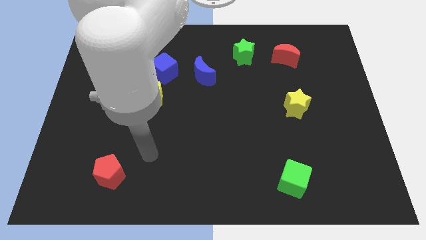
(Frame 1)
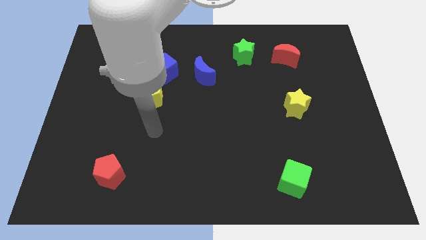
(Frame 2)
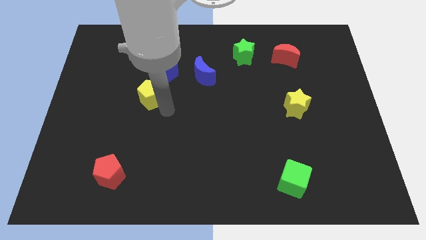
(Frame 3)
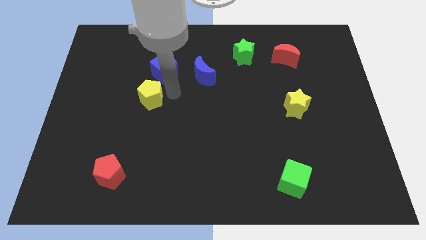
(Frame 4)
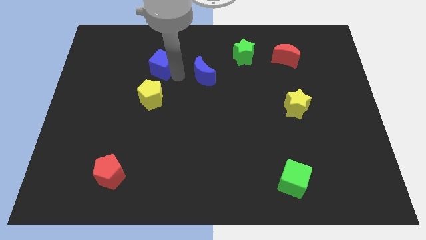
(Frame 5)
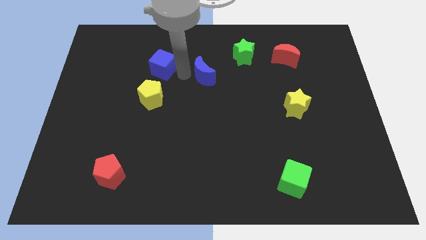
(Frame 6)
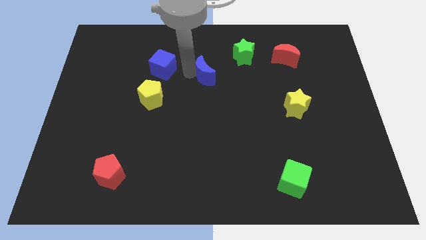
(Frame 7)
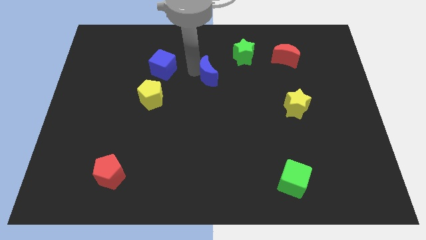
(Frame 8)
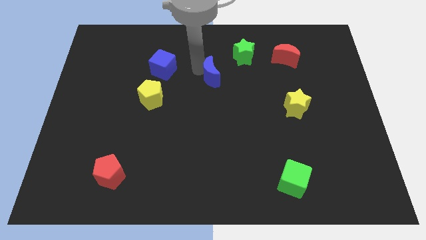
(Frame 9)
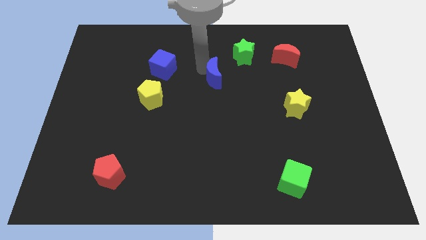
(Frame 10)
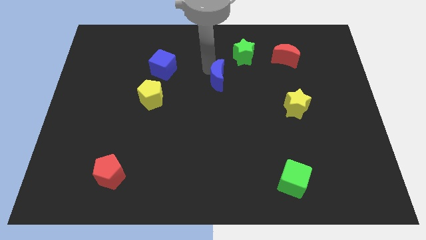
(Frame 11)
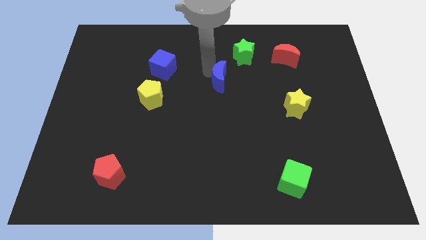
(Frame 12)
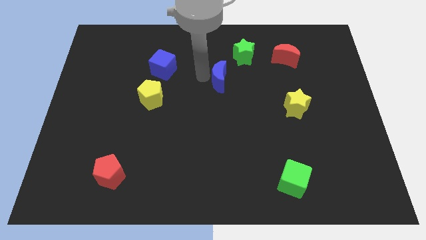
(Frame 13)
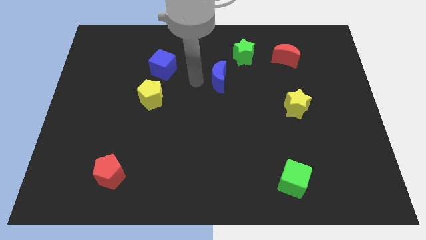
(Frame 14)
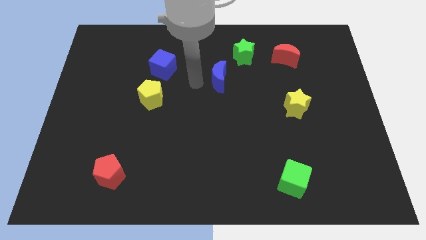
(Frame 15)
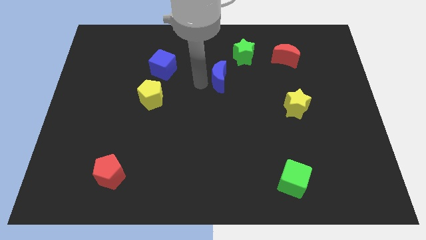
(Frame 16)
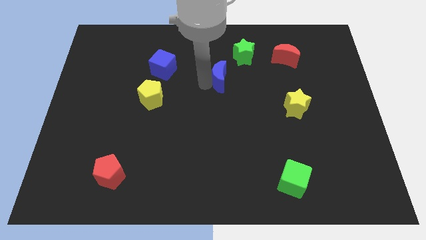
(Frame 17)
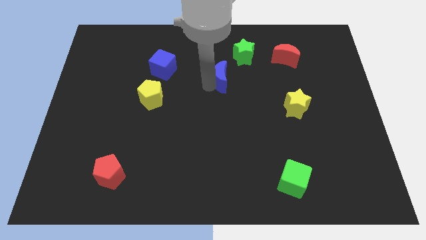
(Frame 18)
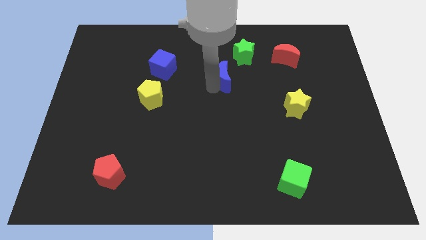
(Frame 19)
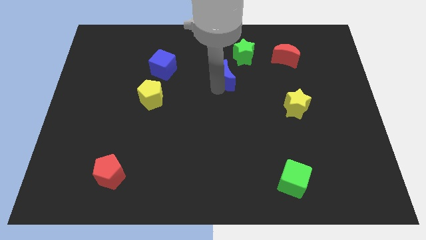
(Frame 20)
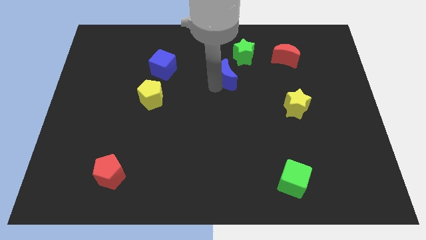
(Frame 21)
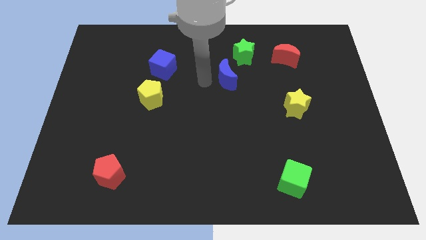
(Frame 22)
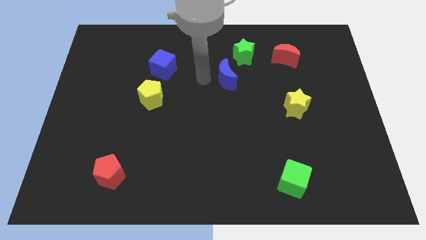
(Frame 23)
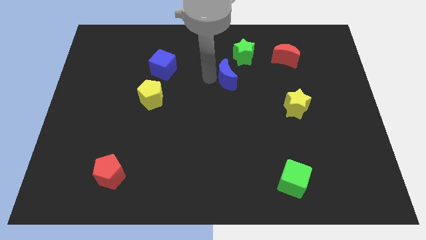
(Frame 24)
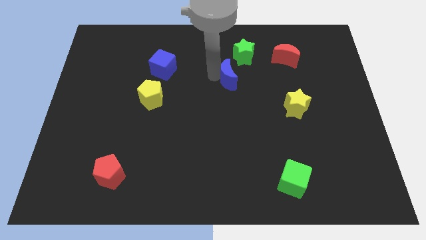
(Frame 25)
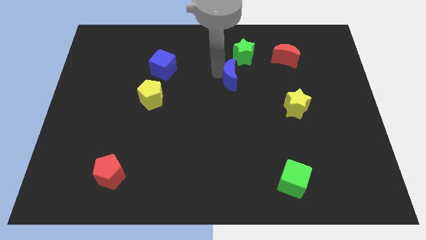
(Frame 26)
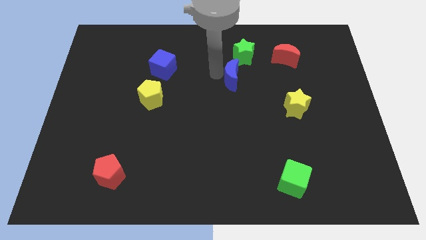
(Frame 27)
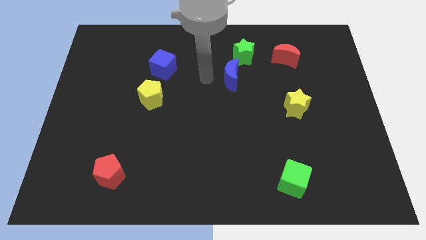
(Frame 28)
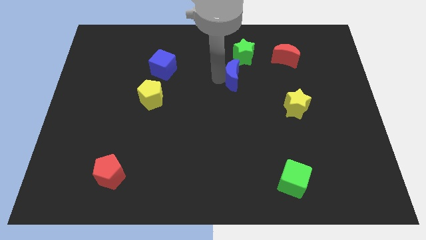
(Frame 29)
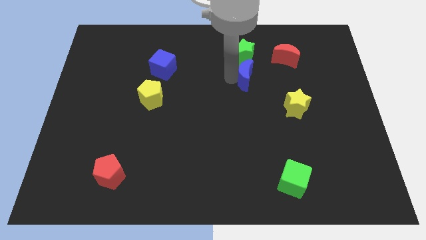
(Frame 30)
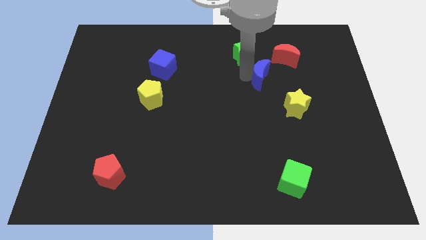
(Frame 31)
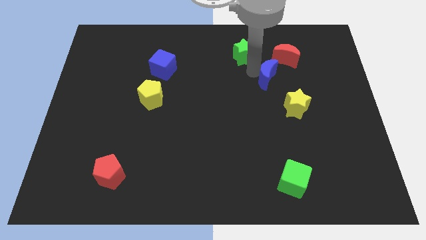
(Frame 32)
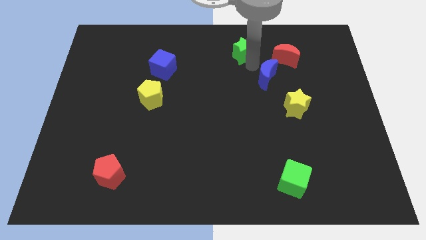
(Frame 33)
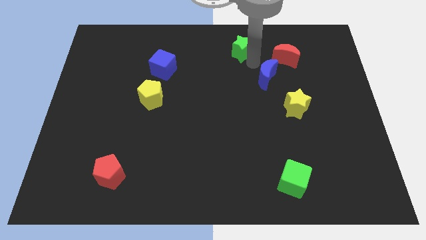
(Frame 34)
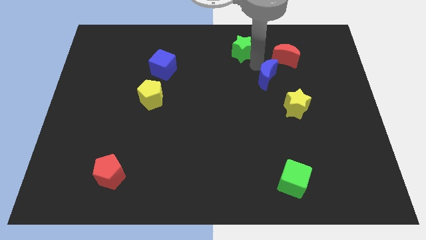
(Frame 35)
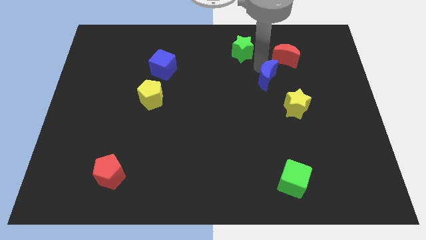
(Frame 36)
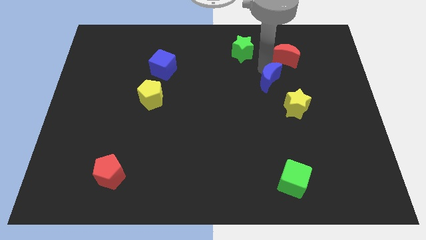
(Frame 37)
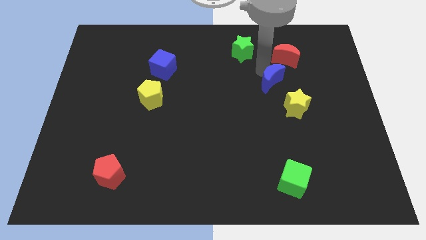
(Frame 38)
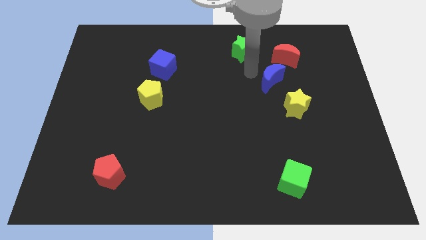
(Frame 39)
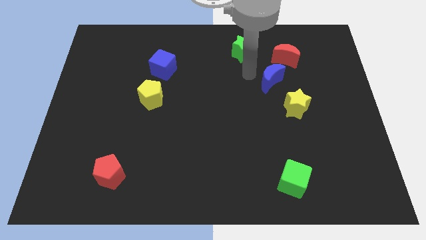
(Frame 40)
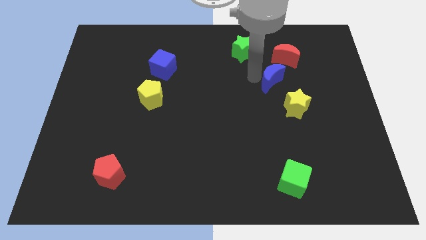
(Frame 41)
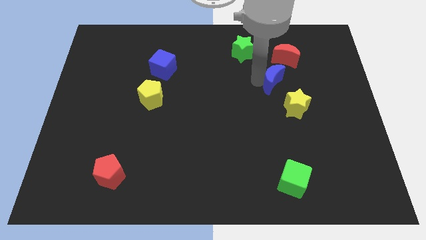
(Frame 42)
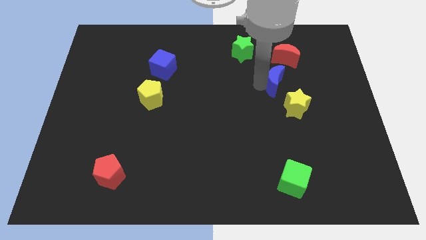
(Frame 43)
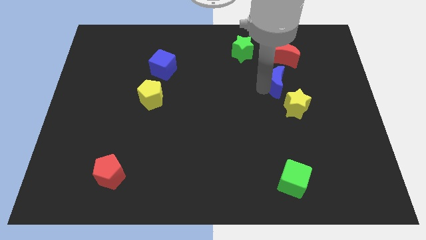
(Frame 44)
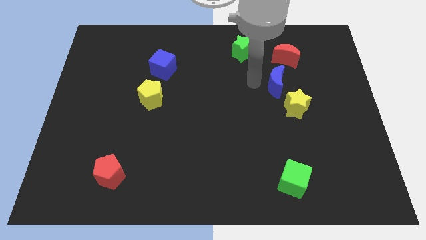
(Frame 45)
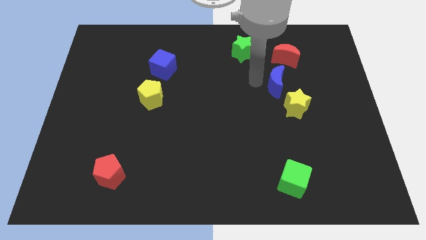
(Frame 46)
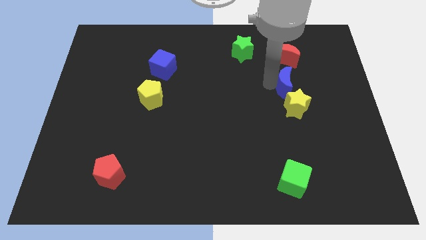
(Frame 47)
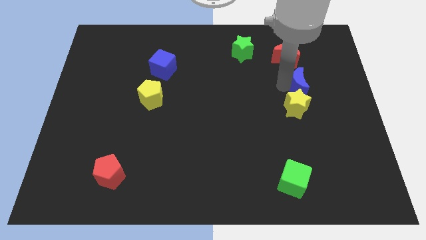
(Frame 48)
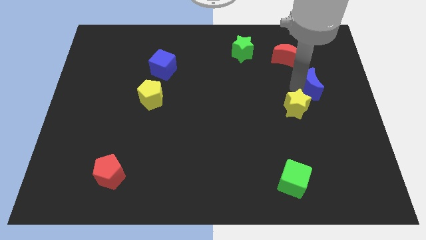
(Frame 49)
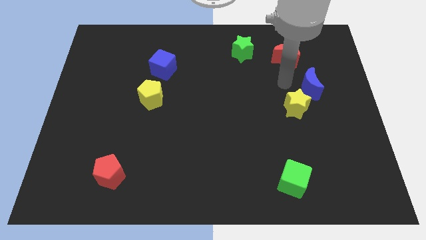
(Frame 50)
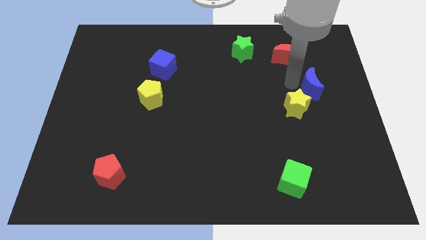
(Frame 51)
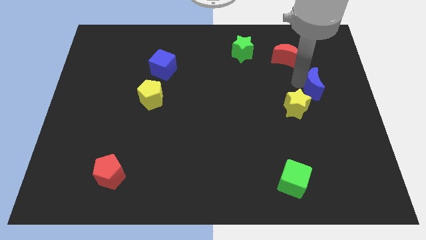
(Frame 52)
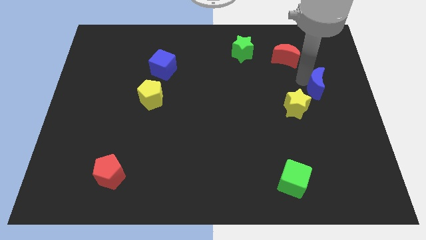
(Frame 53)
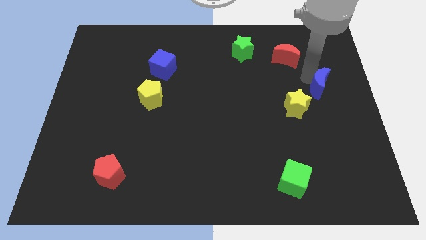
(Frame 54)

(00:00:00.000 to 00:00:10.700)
put the blue moon to the right side of the board
